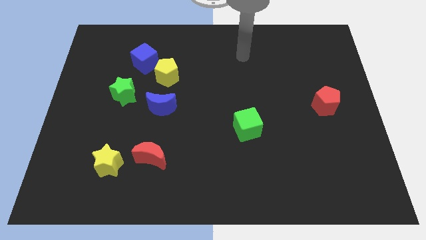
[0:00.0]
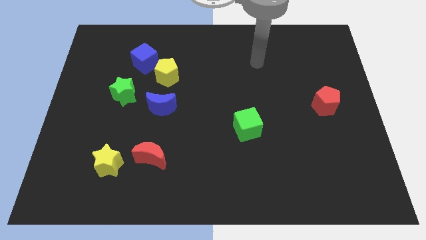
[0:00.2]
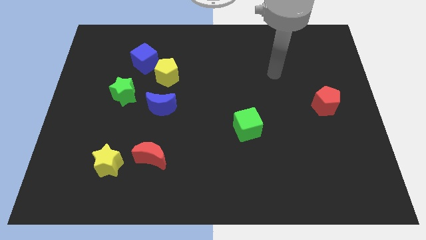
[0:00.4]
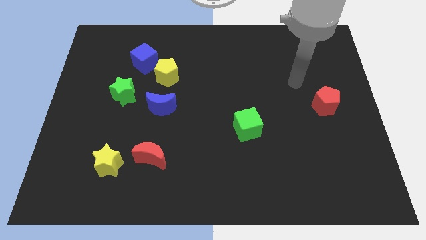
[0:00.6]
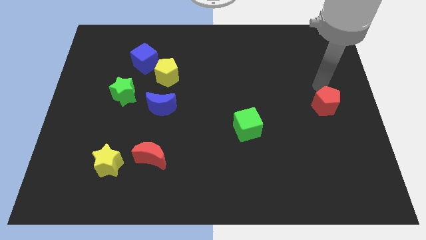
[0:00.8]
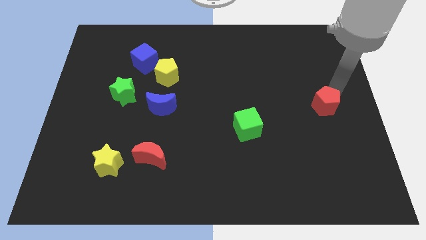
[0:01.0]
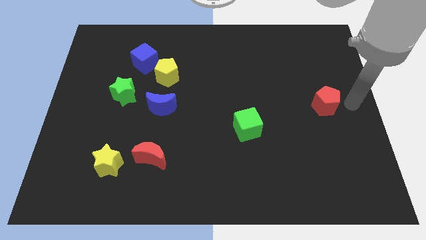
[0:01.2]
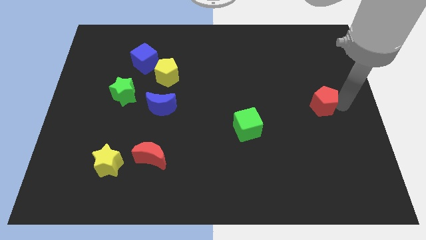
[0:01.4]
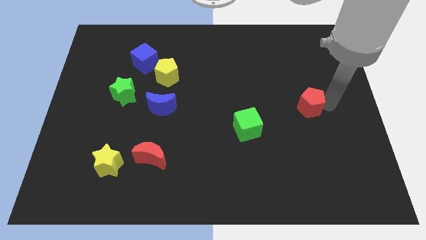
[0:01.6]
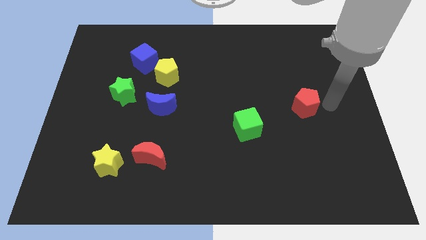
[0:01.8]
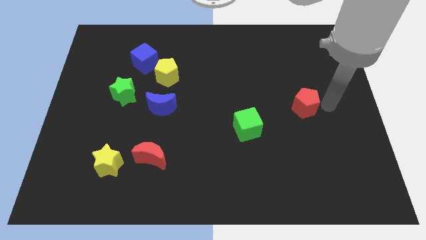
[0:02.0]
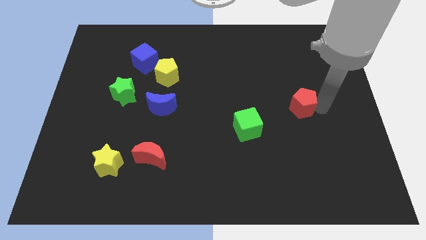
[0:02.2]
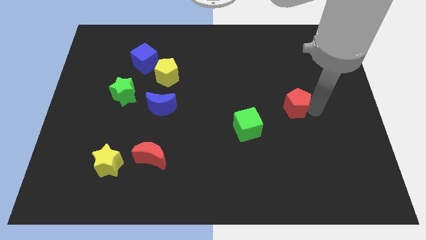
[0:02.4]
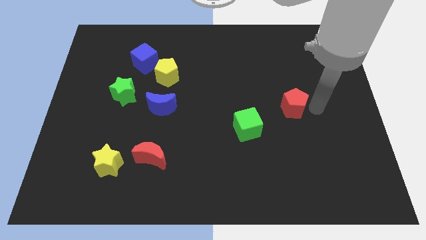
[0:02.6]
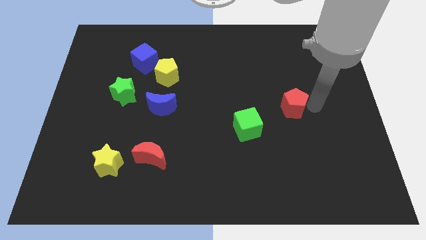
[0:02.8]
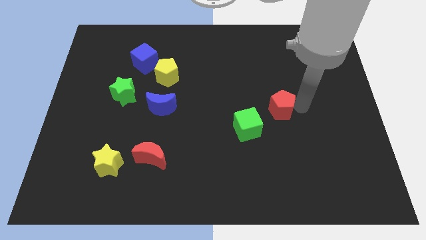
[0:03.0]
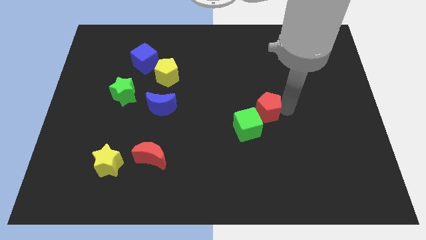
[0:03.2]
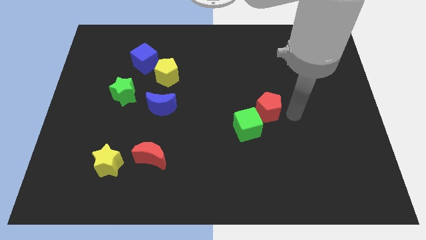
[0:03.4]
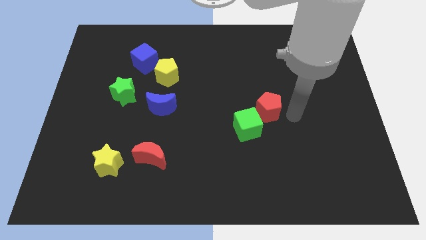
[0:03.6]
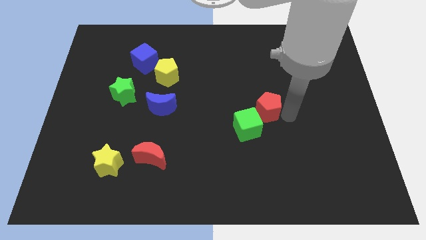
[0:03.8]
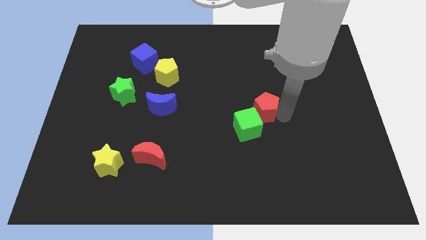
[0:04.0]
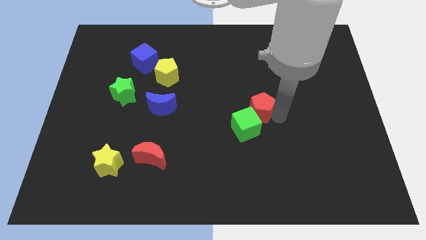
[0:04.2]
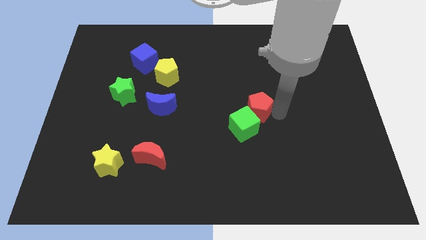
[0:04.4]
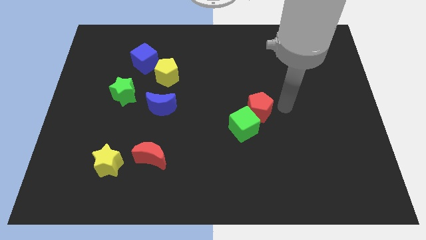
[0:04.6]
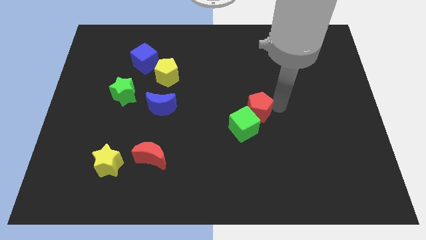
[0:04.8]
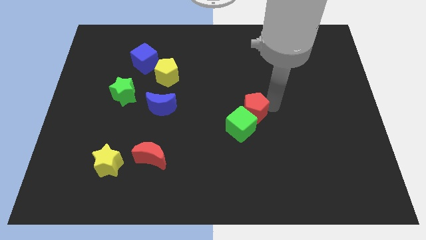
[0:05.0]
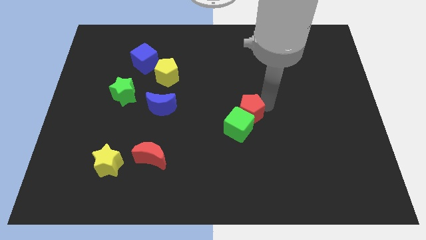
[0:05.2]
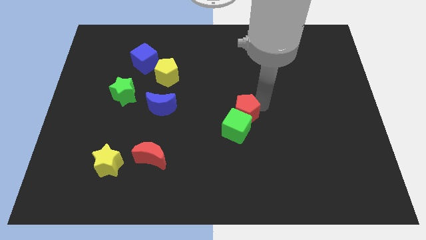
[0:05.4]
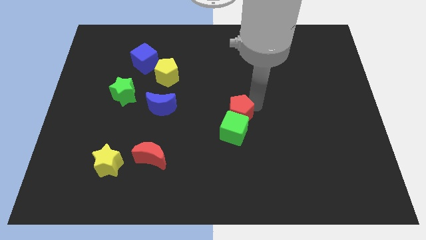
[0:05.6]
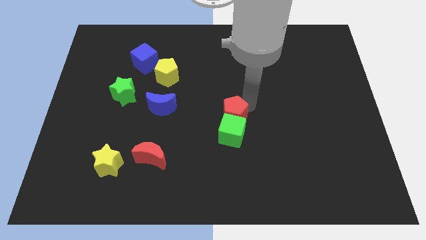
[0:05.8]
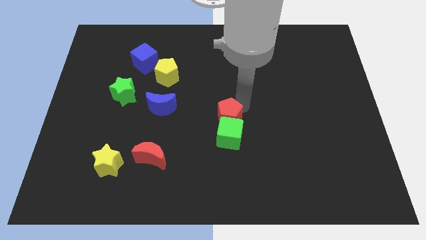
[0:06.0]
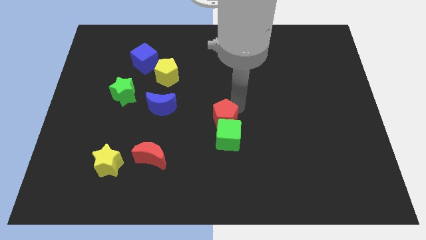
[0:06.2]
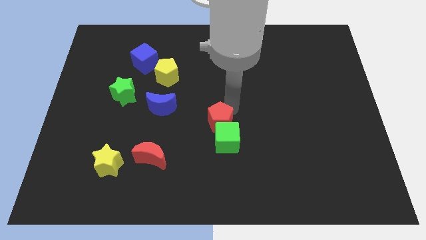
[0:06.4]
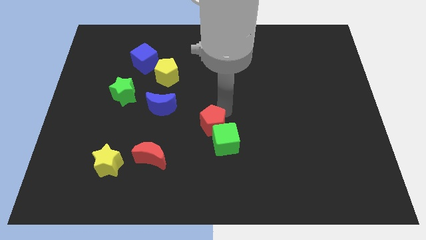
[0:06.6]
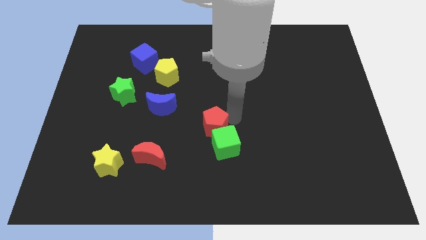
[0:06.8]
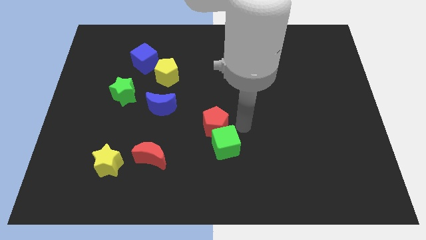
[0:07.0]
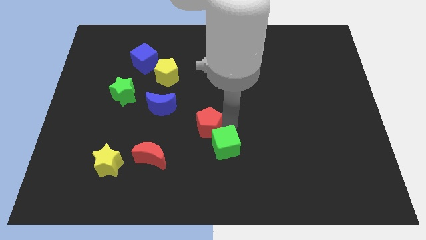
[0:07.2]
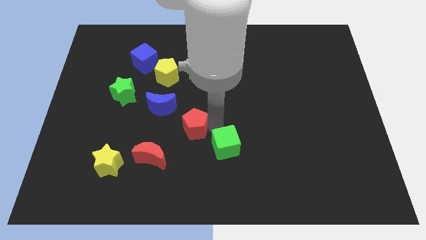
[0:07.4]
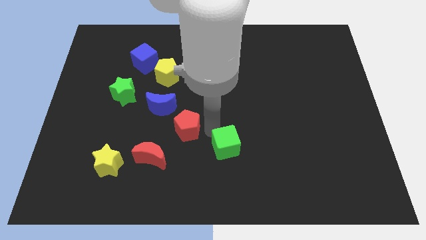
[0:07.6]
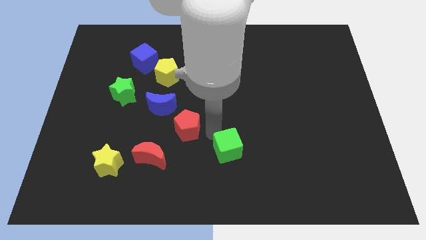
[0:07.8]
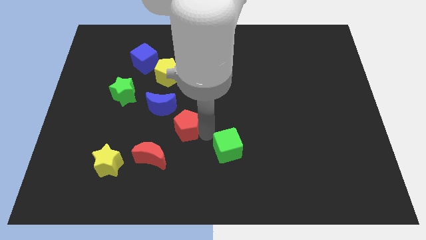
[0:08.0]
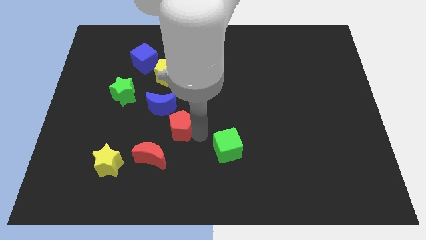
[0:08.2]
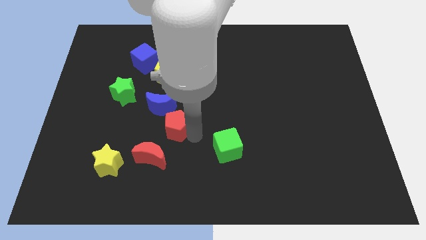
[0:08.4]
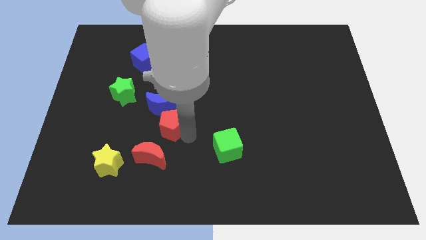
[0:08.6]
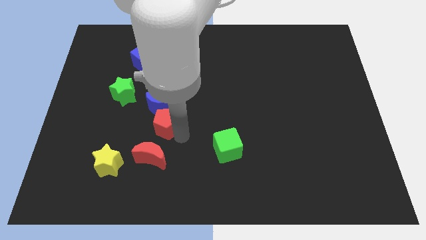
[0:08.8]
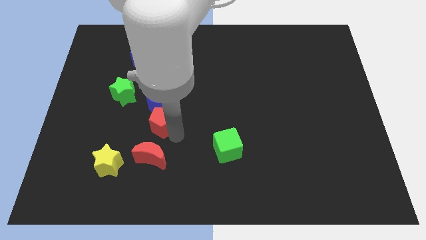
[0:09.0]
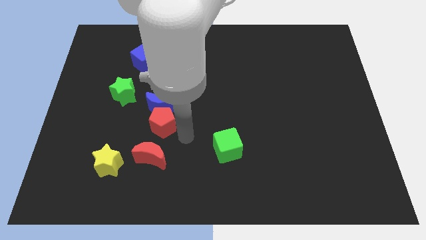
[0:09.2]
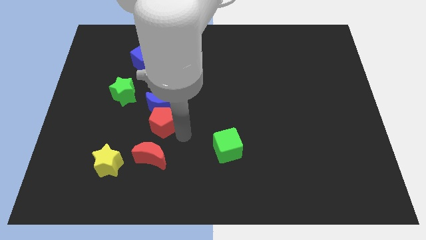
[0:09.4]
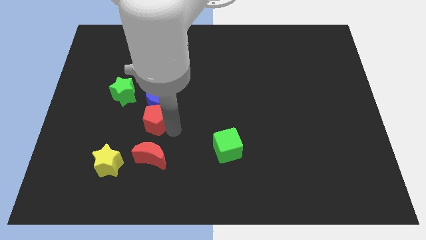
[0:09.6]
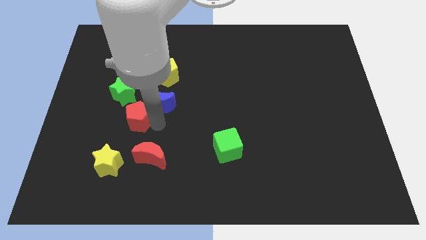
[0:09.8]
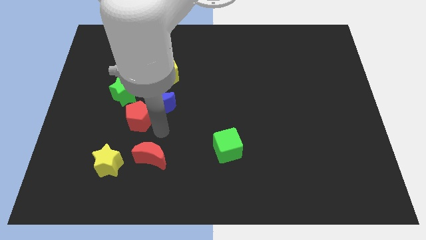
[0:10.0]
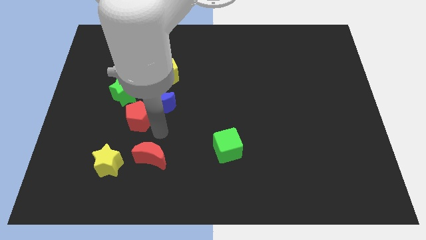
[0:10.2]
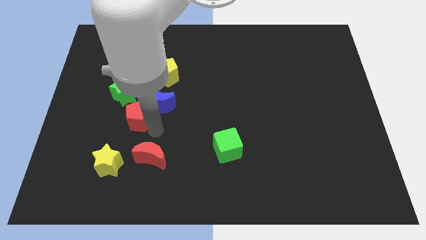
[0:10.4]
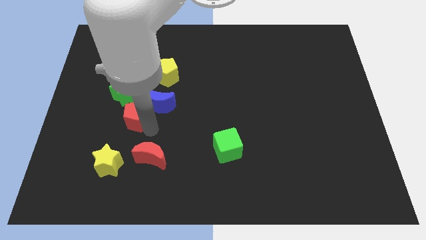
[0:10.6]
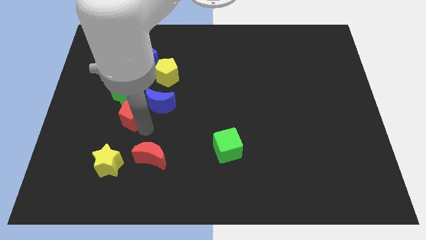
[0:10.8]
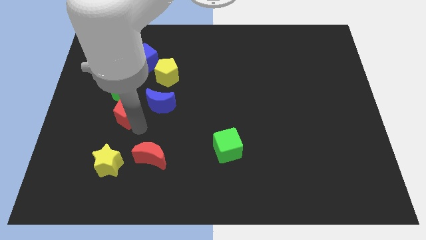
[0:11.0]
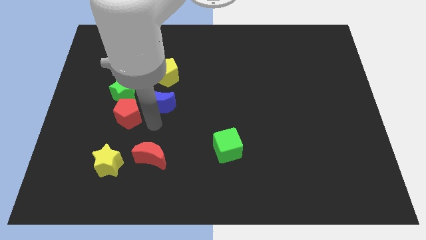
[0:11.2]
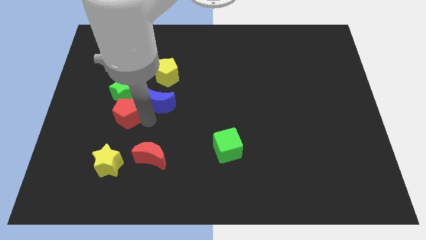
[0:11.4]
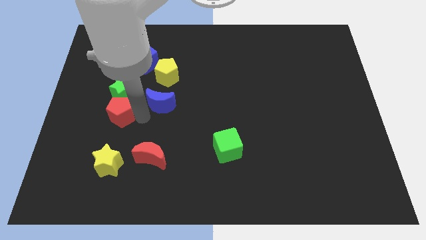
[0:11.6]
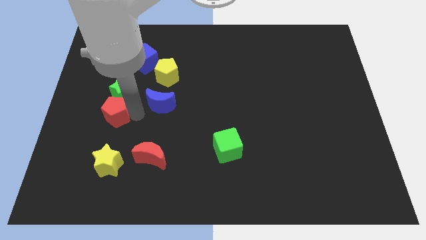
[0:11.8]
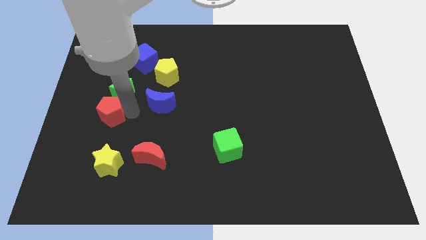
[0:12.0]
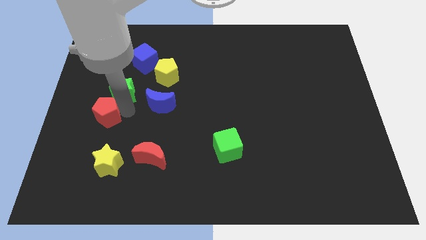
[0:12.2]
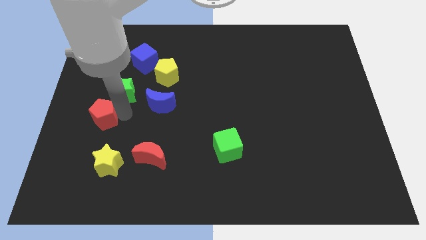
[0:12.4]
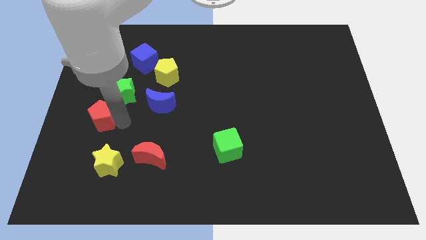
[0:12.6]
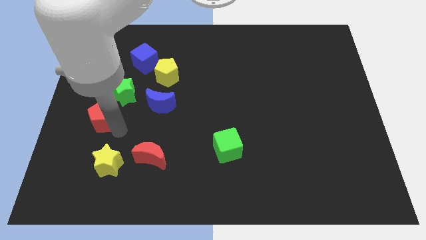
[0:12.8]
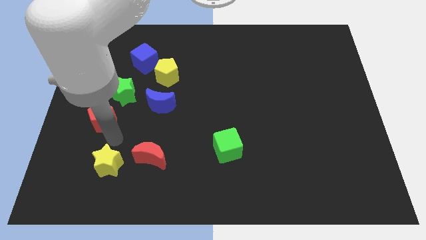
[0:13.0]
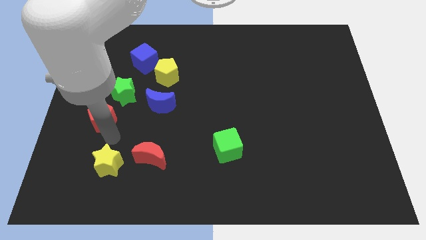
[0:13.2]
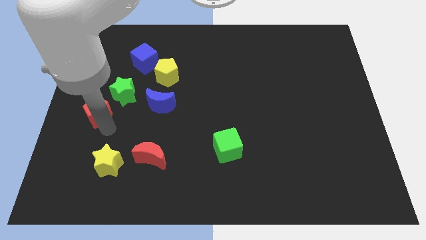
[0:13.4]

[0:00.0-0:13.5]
slide the red pentagon to the center left

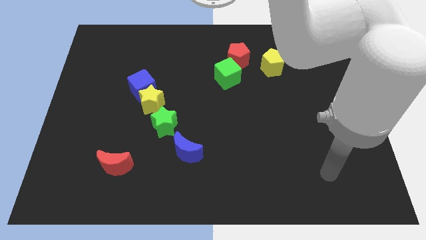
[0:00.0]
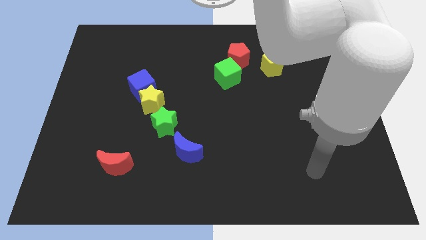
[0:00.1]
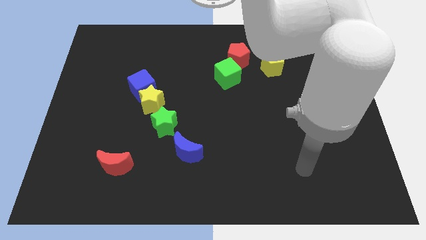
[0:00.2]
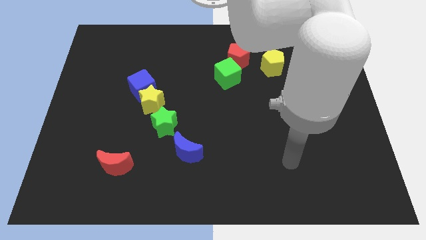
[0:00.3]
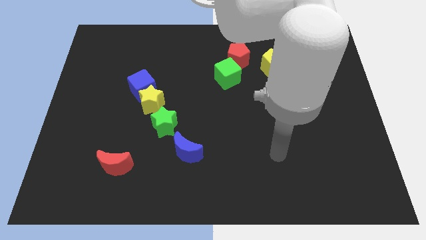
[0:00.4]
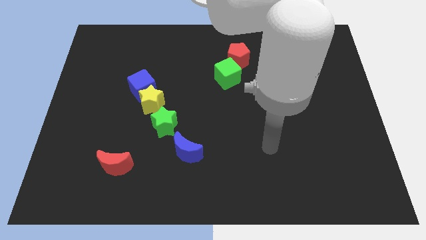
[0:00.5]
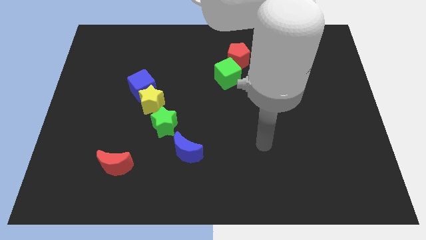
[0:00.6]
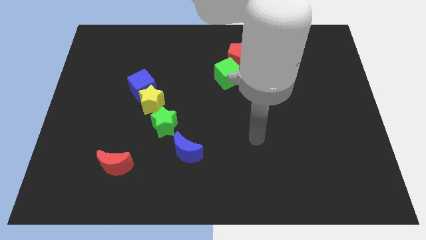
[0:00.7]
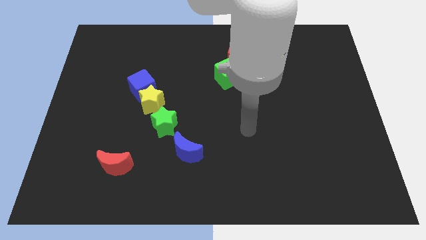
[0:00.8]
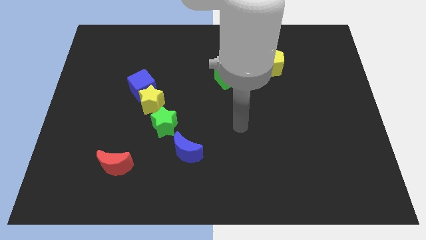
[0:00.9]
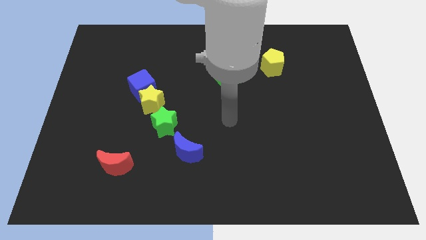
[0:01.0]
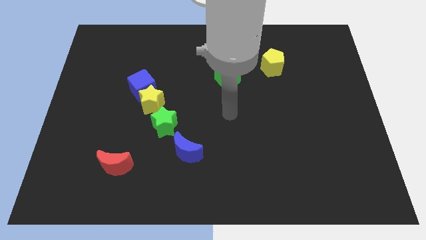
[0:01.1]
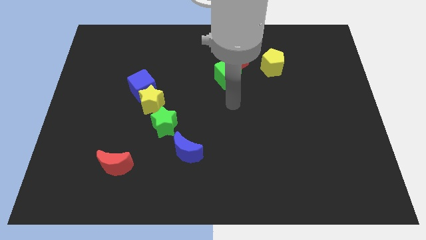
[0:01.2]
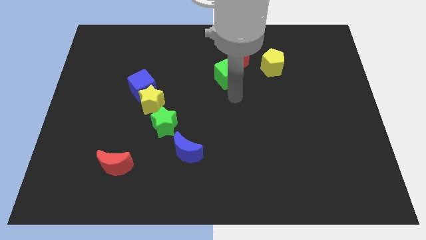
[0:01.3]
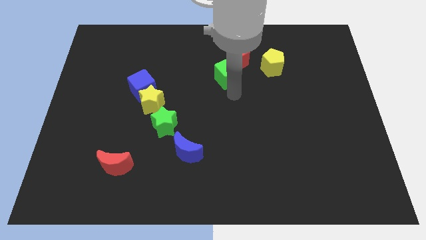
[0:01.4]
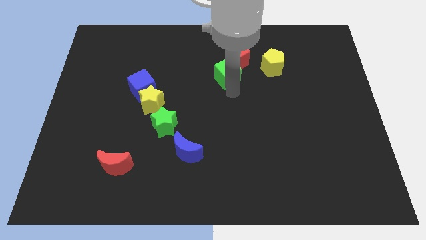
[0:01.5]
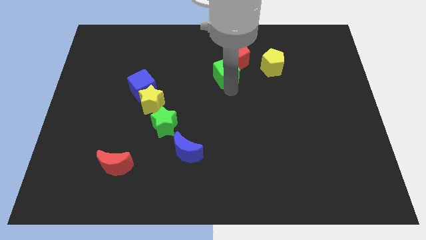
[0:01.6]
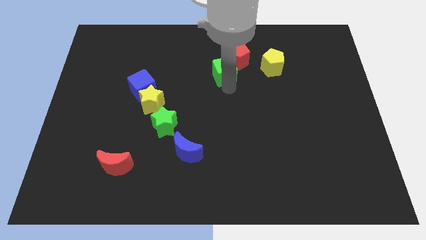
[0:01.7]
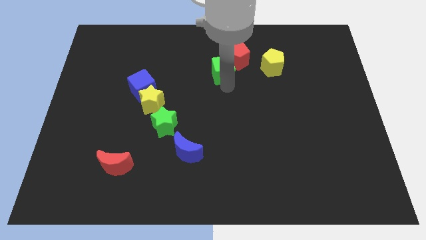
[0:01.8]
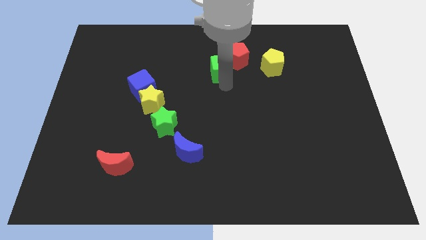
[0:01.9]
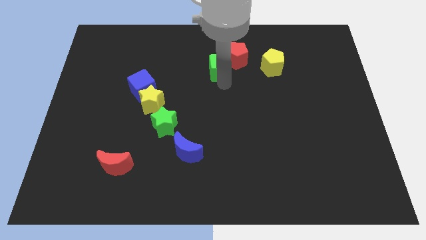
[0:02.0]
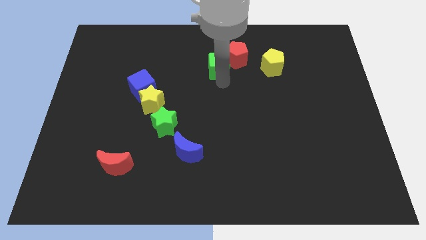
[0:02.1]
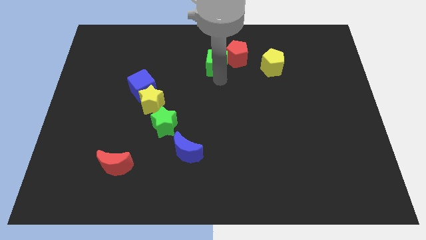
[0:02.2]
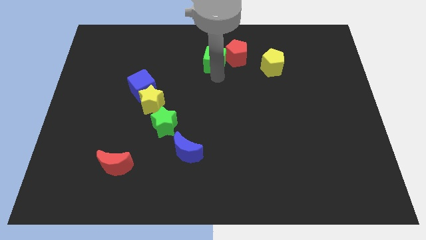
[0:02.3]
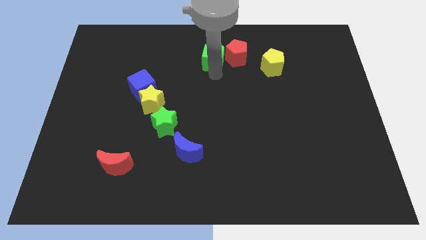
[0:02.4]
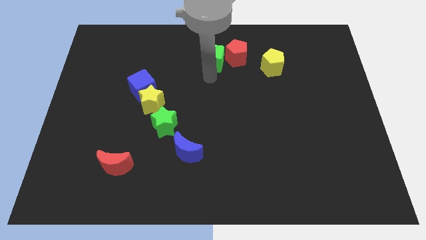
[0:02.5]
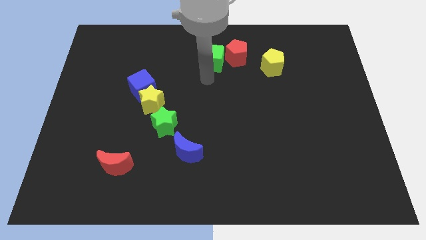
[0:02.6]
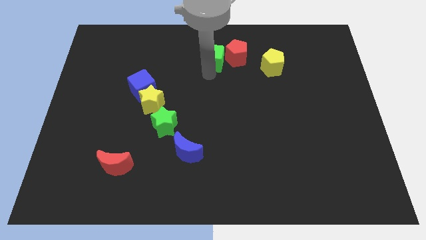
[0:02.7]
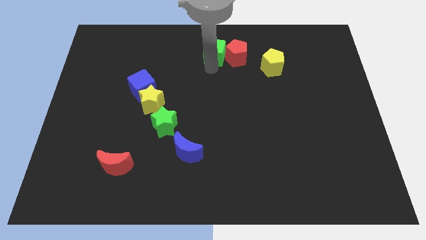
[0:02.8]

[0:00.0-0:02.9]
slide the green cube to the top side
